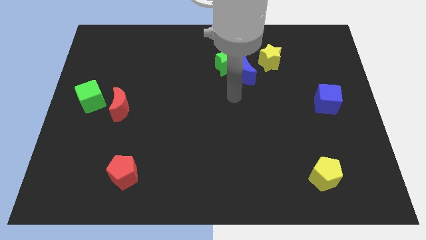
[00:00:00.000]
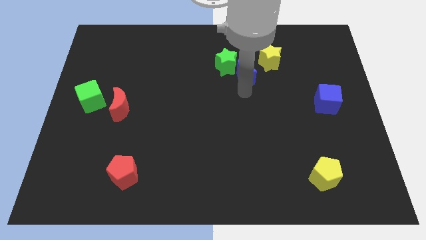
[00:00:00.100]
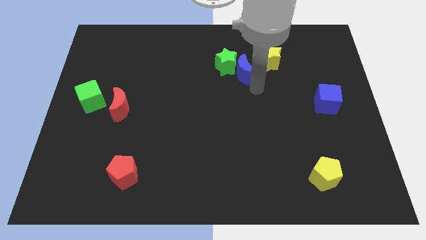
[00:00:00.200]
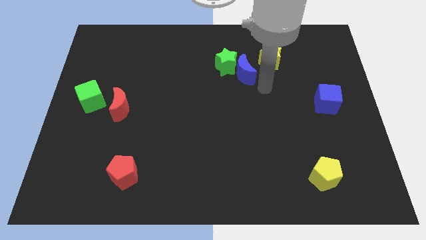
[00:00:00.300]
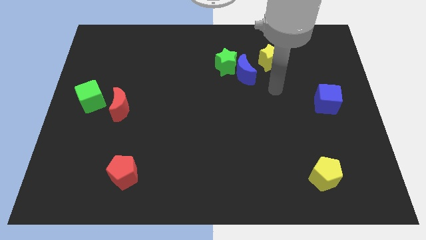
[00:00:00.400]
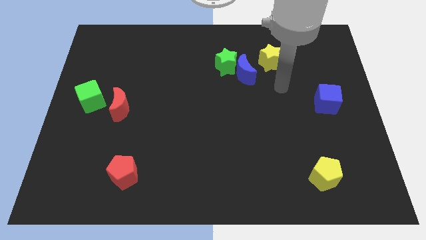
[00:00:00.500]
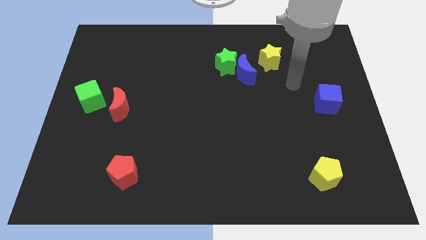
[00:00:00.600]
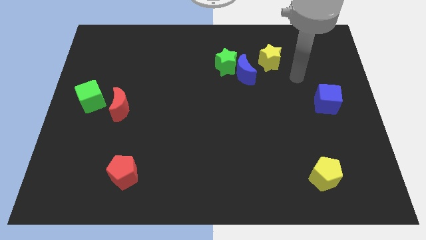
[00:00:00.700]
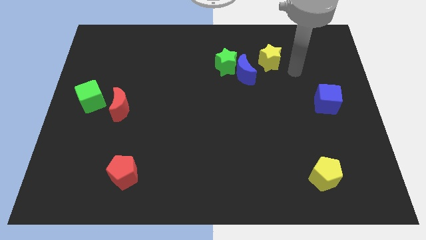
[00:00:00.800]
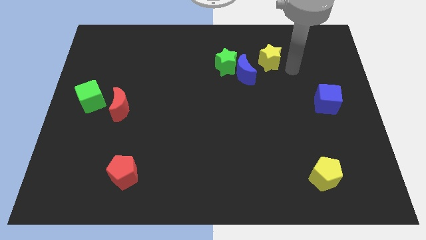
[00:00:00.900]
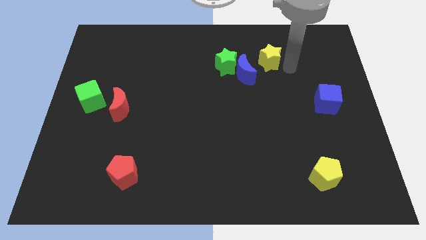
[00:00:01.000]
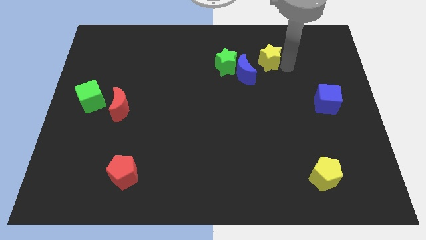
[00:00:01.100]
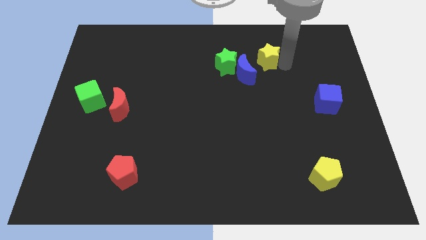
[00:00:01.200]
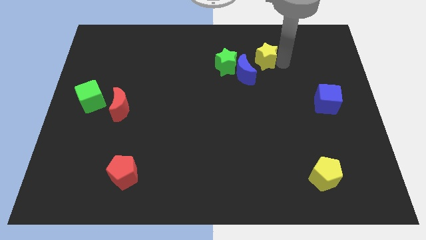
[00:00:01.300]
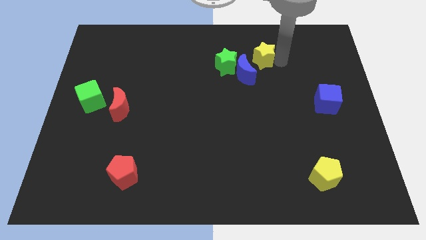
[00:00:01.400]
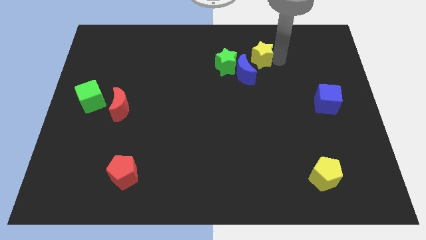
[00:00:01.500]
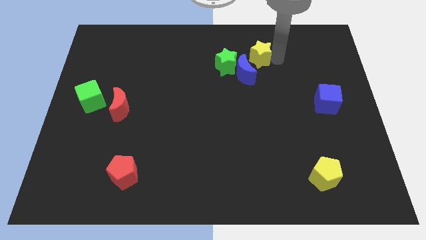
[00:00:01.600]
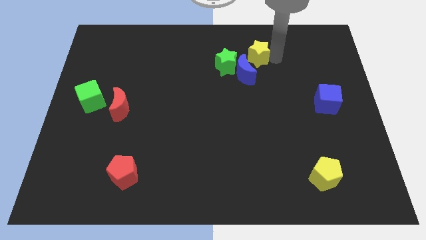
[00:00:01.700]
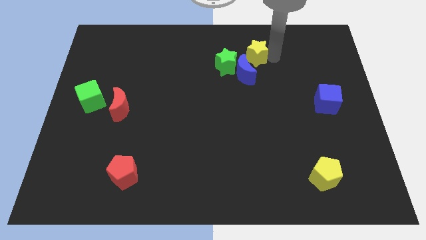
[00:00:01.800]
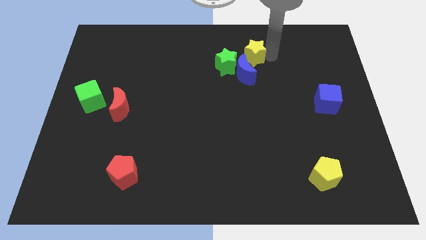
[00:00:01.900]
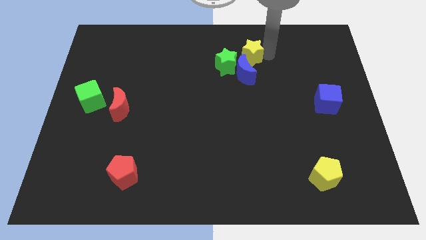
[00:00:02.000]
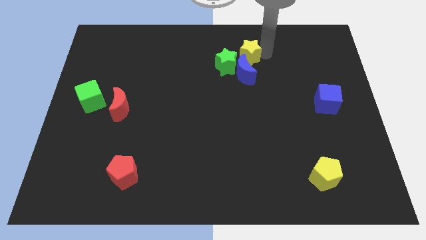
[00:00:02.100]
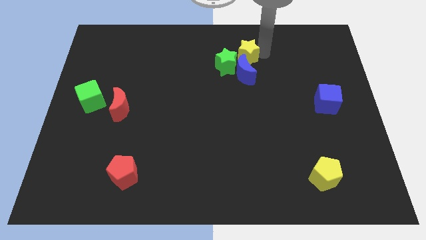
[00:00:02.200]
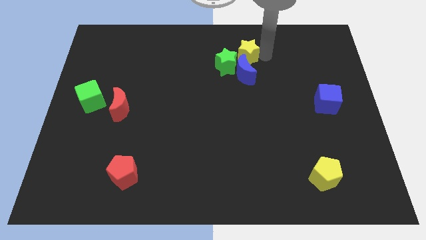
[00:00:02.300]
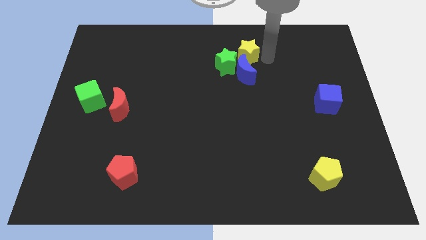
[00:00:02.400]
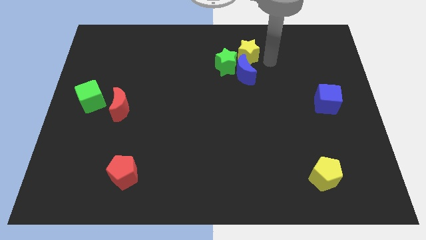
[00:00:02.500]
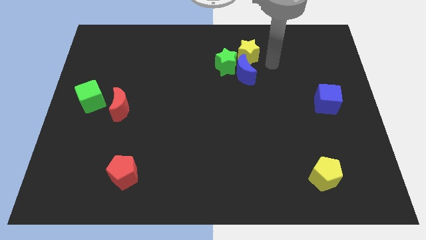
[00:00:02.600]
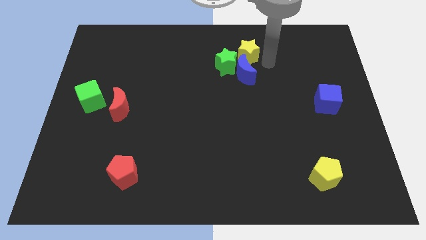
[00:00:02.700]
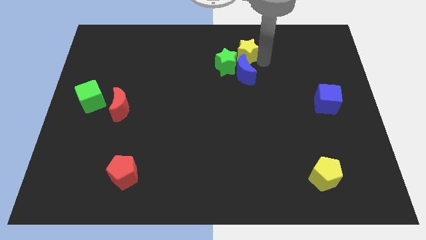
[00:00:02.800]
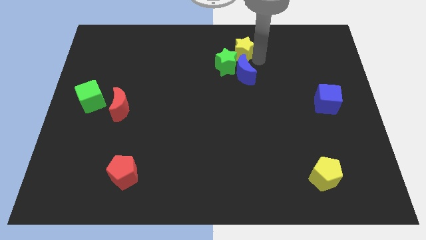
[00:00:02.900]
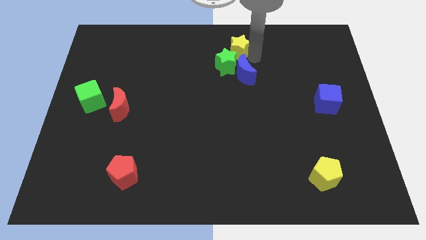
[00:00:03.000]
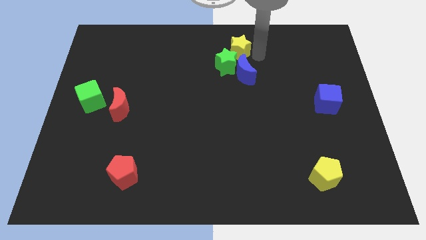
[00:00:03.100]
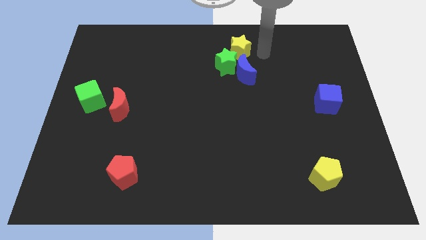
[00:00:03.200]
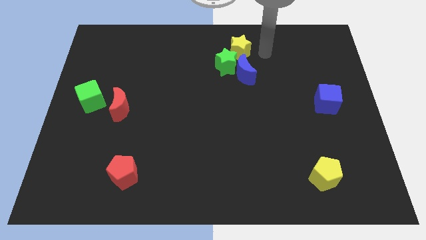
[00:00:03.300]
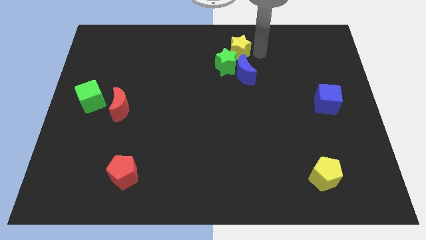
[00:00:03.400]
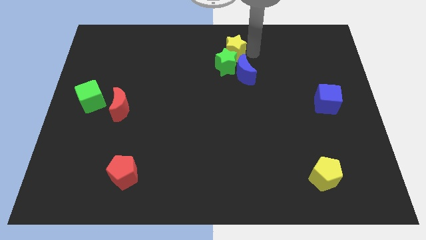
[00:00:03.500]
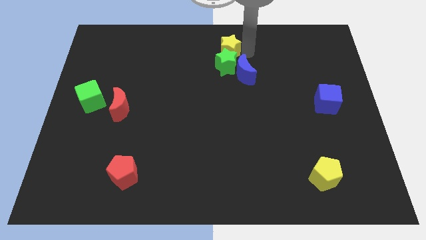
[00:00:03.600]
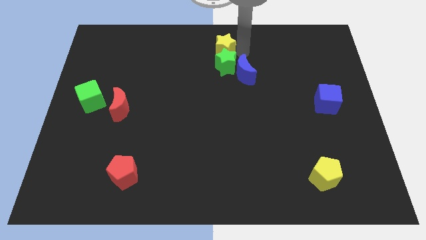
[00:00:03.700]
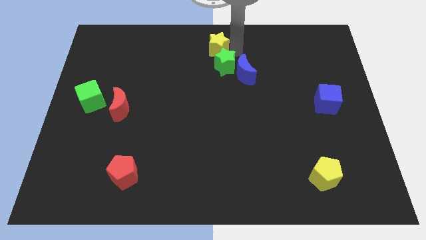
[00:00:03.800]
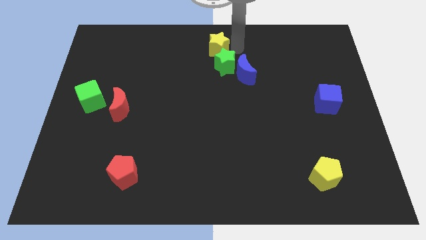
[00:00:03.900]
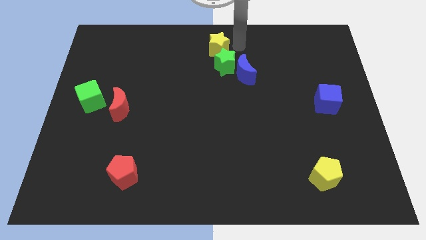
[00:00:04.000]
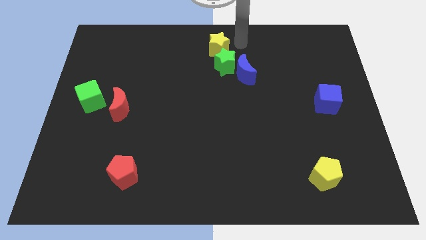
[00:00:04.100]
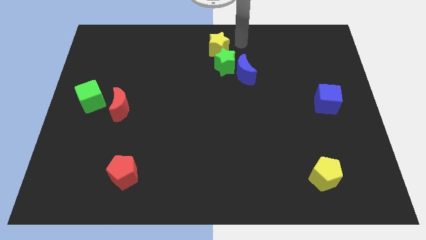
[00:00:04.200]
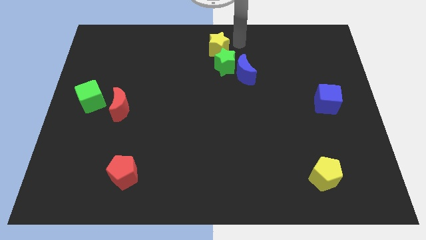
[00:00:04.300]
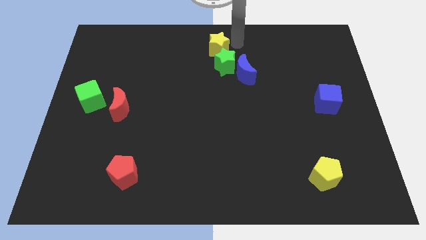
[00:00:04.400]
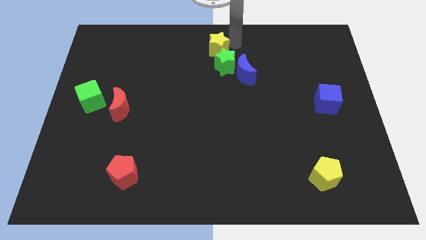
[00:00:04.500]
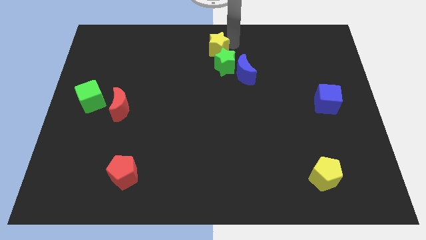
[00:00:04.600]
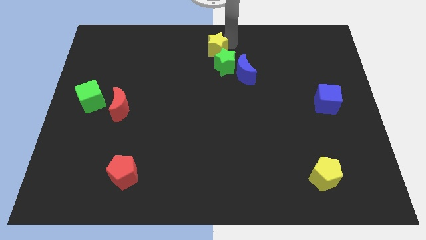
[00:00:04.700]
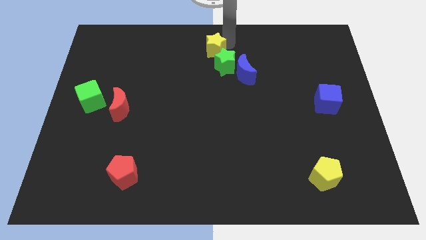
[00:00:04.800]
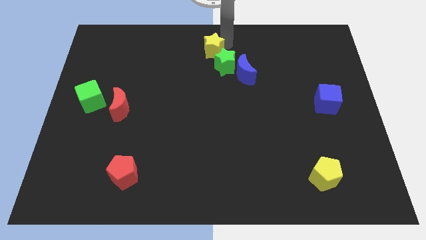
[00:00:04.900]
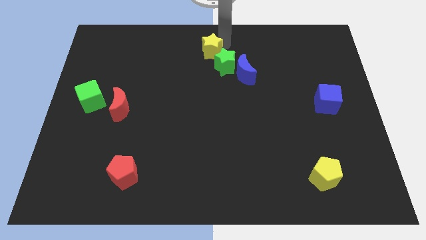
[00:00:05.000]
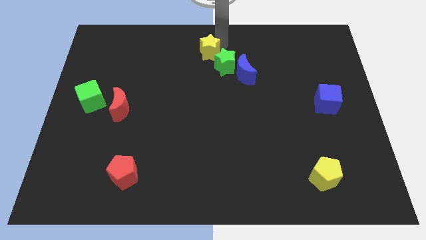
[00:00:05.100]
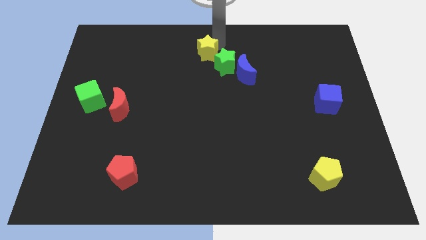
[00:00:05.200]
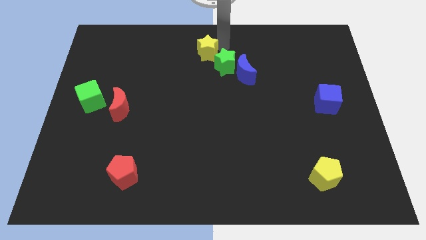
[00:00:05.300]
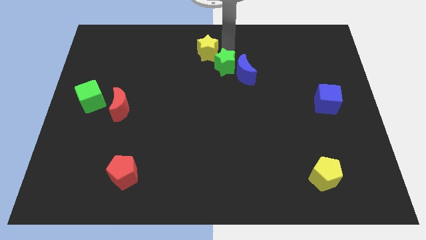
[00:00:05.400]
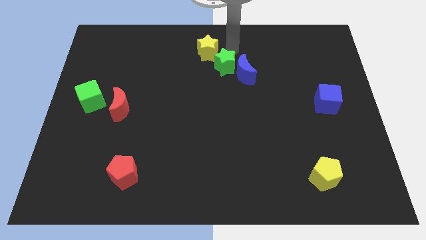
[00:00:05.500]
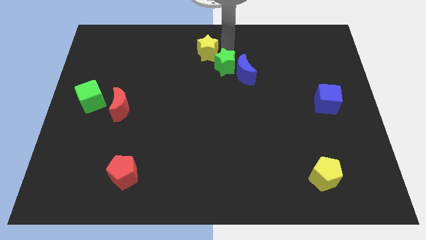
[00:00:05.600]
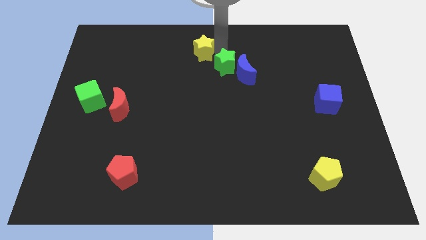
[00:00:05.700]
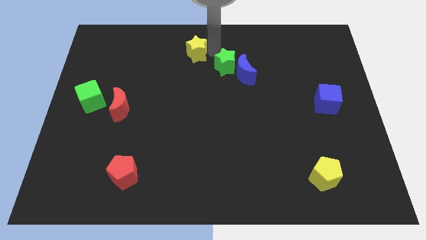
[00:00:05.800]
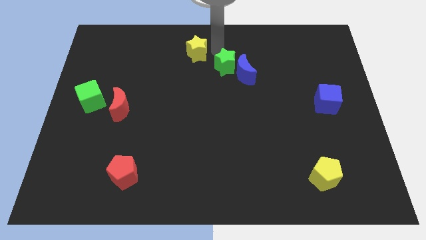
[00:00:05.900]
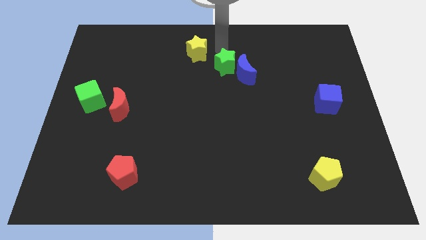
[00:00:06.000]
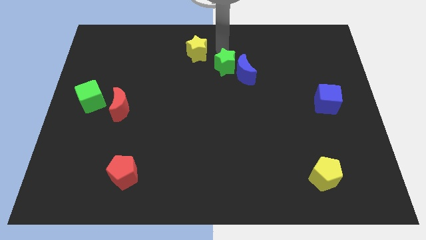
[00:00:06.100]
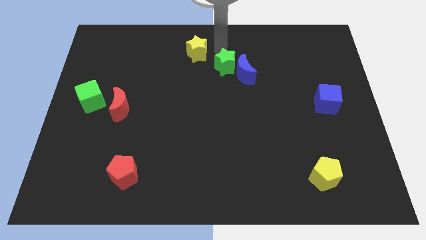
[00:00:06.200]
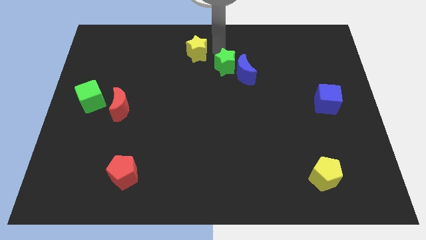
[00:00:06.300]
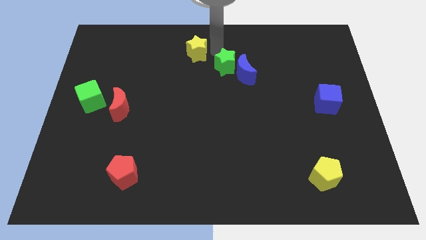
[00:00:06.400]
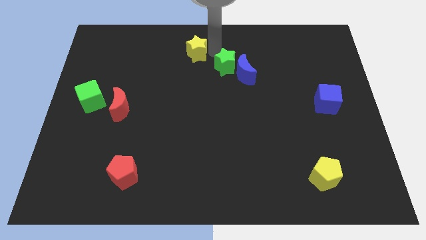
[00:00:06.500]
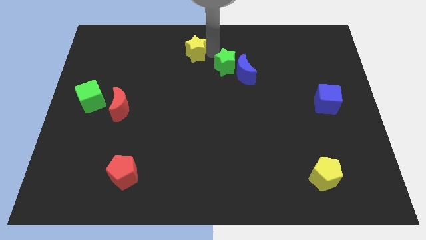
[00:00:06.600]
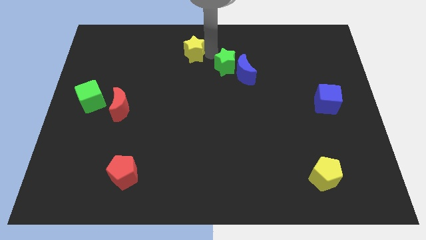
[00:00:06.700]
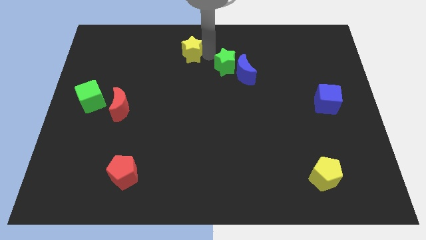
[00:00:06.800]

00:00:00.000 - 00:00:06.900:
slide the yellow star to the left

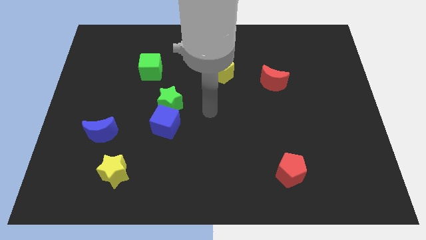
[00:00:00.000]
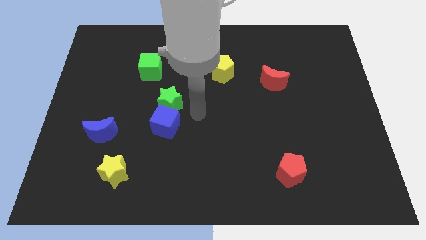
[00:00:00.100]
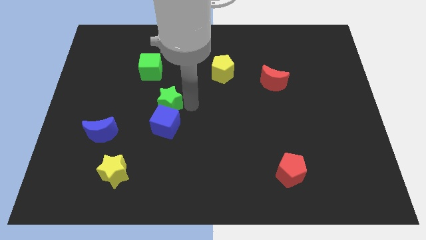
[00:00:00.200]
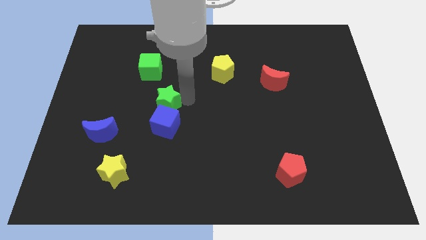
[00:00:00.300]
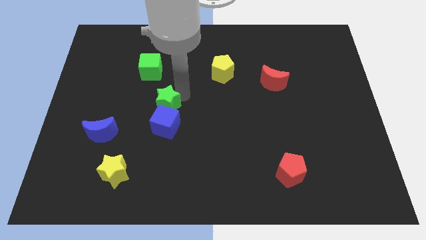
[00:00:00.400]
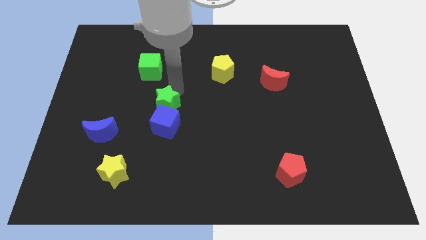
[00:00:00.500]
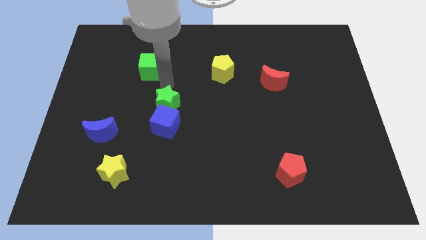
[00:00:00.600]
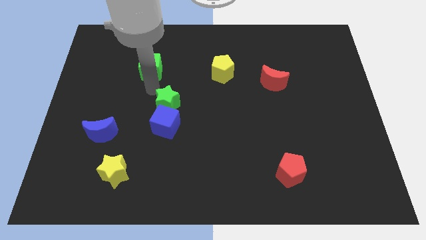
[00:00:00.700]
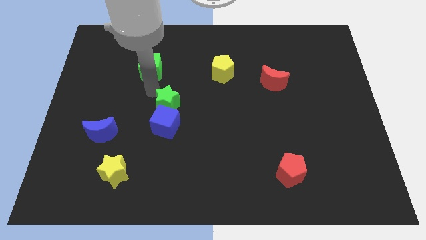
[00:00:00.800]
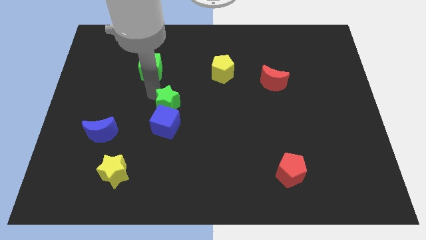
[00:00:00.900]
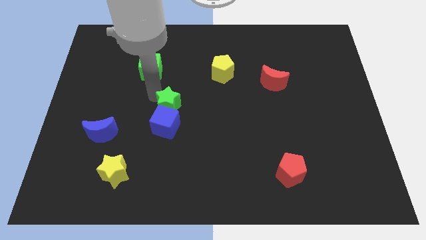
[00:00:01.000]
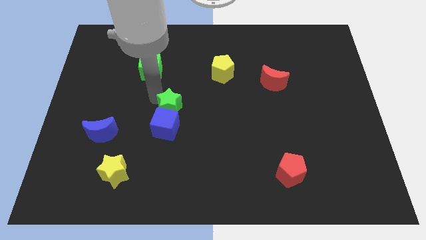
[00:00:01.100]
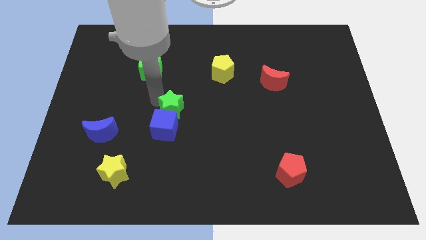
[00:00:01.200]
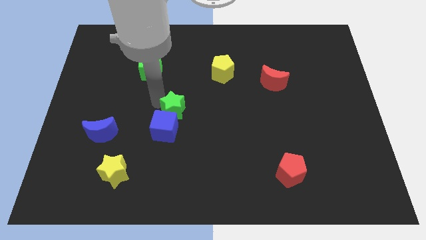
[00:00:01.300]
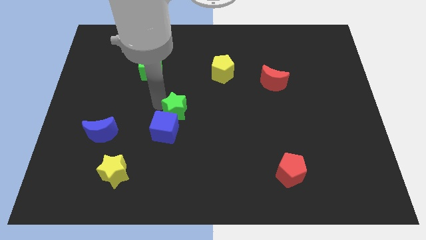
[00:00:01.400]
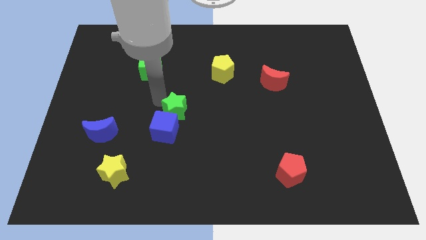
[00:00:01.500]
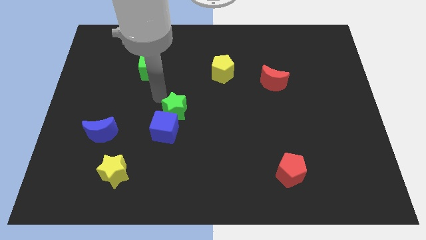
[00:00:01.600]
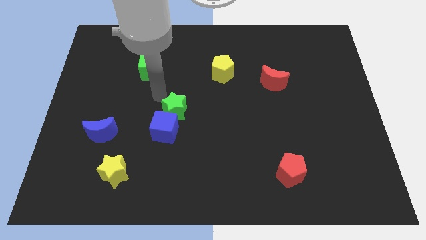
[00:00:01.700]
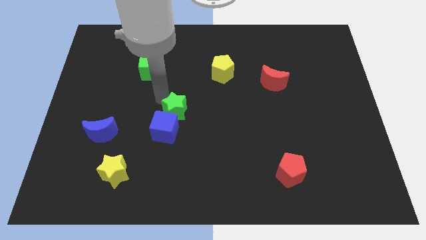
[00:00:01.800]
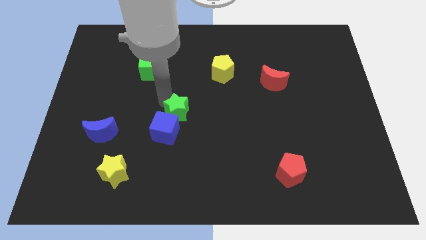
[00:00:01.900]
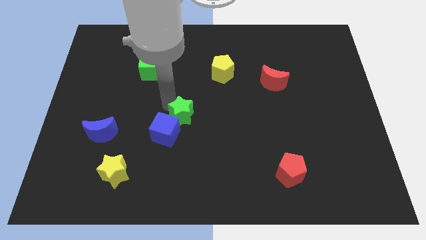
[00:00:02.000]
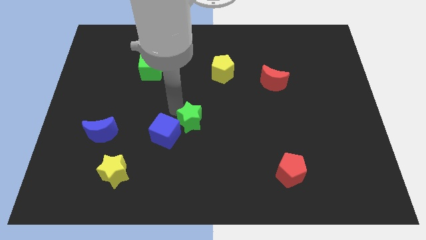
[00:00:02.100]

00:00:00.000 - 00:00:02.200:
slide the green star diagonally downwards and right a bit
